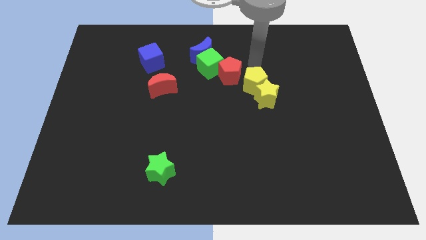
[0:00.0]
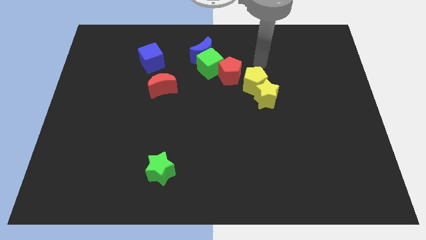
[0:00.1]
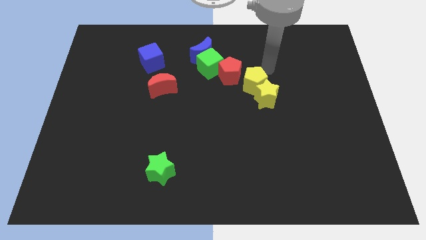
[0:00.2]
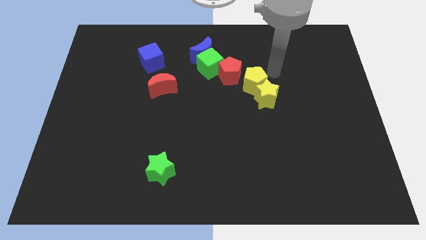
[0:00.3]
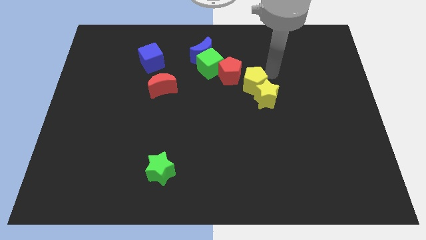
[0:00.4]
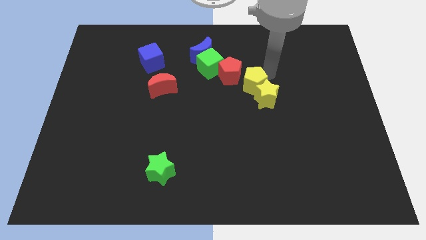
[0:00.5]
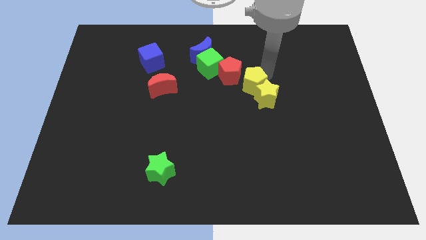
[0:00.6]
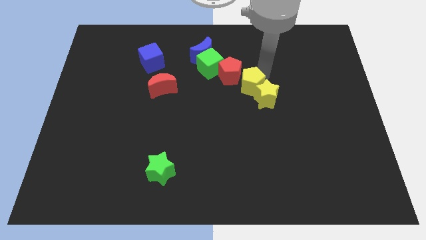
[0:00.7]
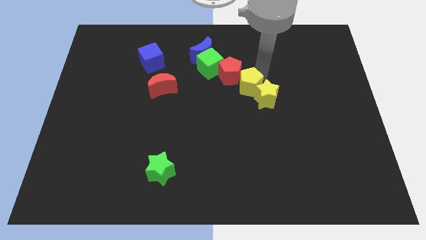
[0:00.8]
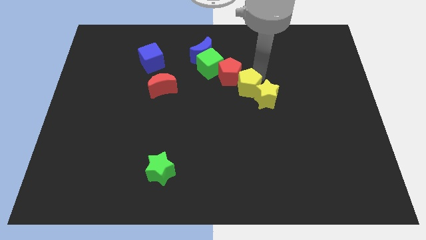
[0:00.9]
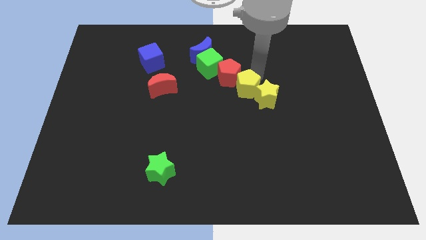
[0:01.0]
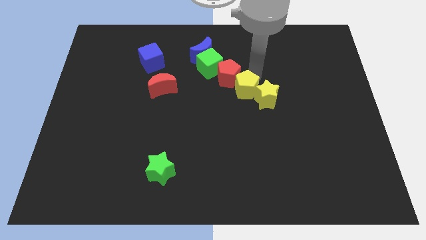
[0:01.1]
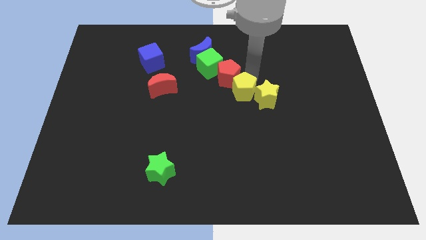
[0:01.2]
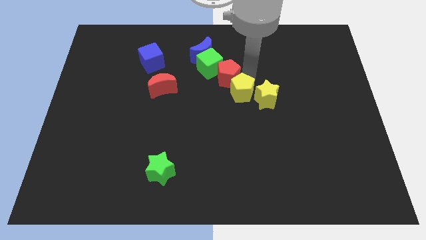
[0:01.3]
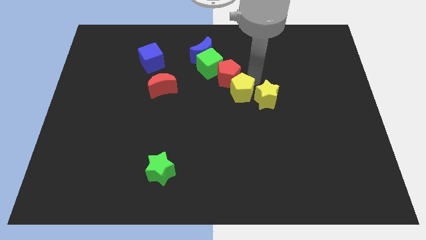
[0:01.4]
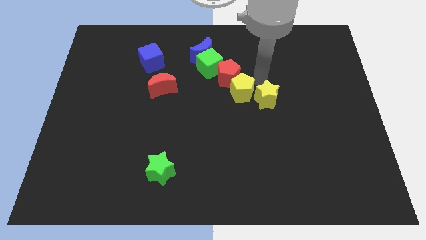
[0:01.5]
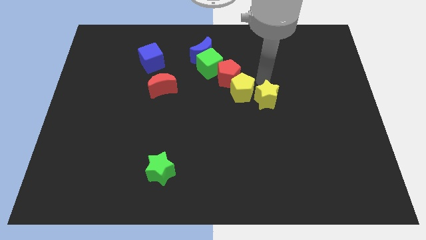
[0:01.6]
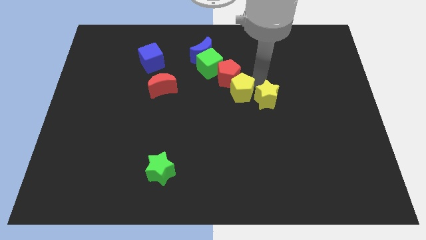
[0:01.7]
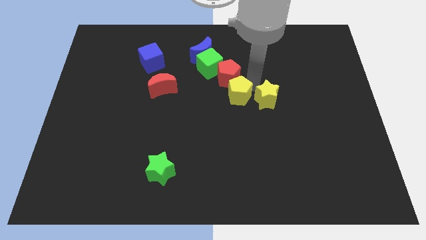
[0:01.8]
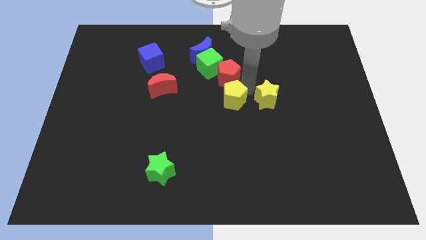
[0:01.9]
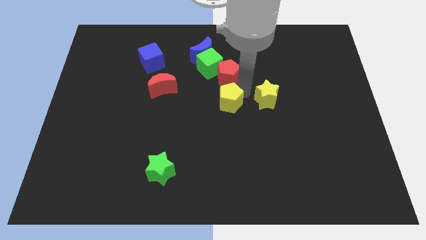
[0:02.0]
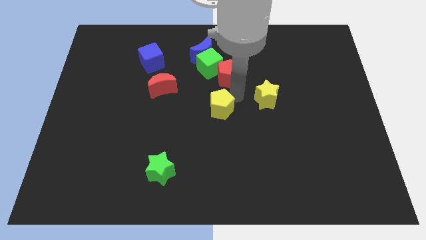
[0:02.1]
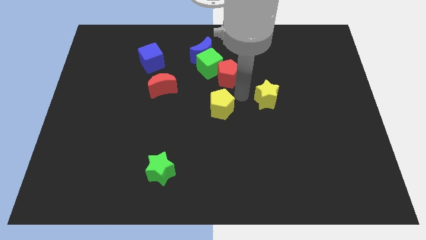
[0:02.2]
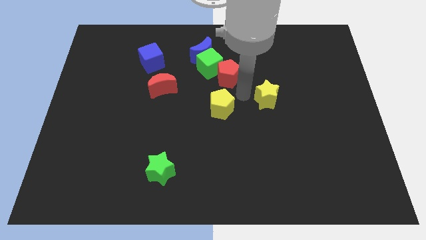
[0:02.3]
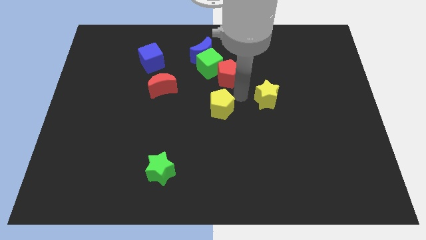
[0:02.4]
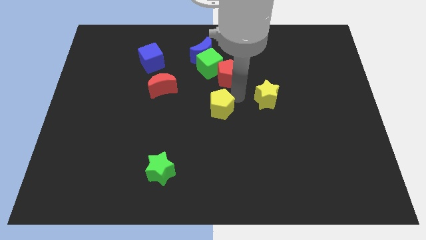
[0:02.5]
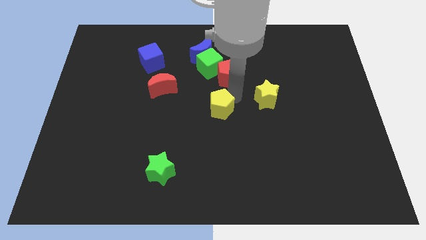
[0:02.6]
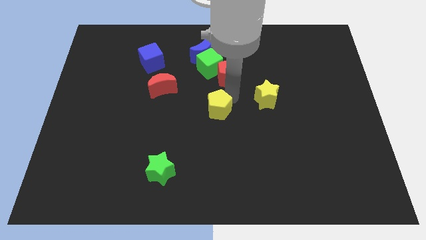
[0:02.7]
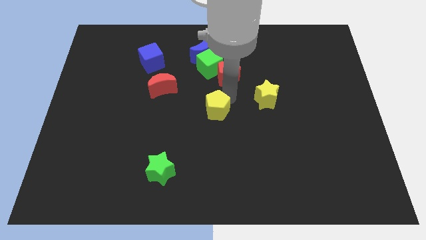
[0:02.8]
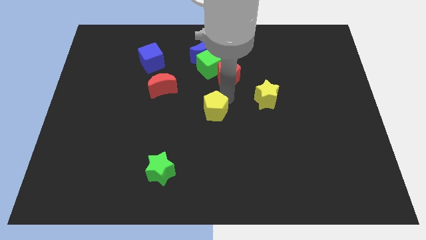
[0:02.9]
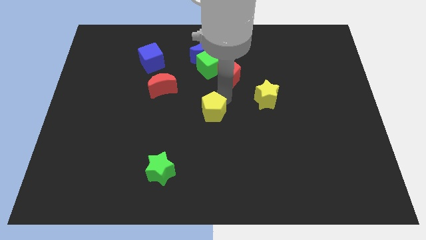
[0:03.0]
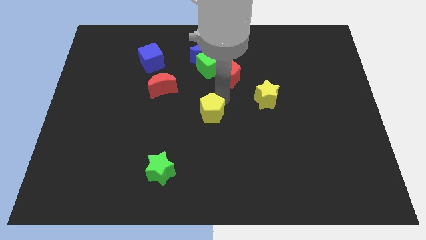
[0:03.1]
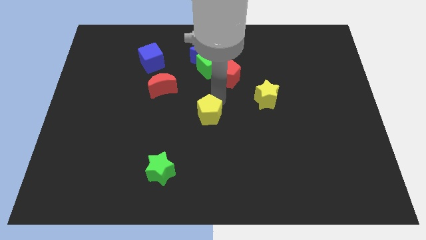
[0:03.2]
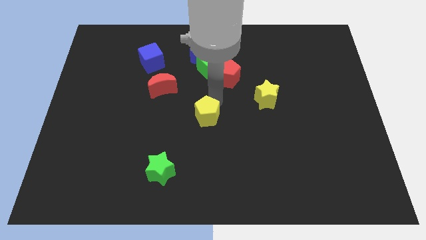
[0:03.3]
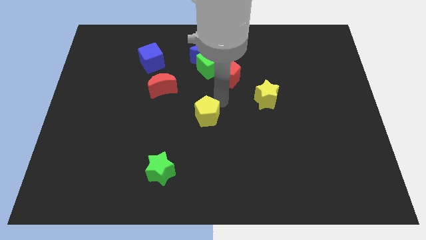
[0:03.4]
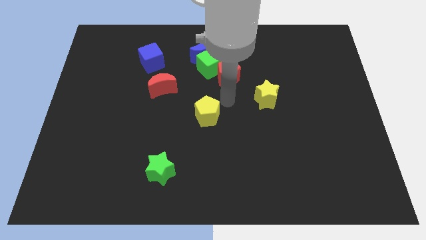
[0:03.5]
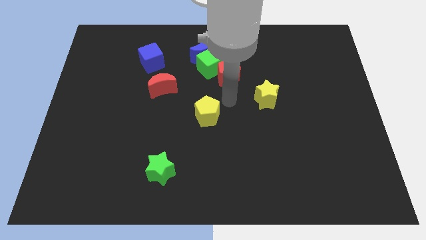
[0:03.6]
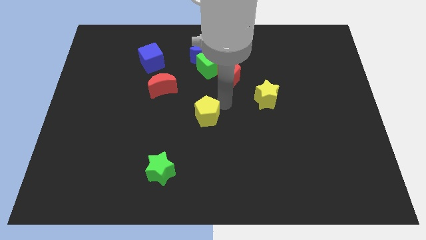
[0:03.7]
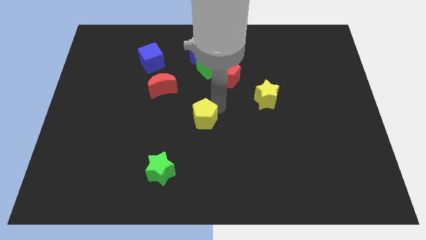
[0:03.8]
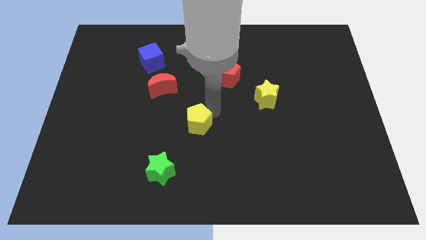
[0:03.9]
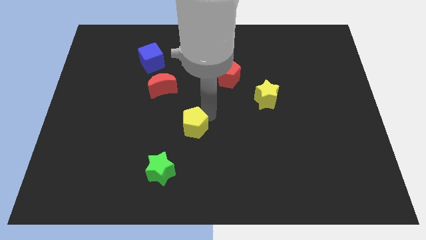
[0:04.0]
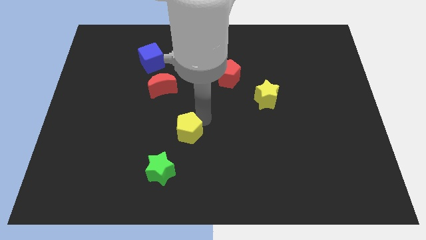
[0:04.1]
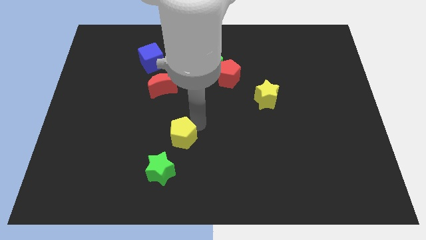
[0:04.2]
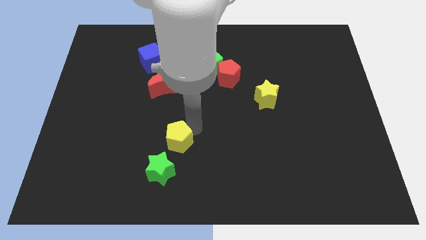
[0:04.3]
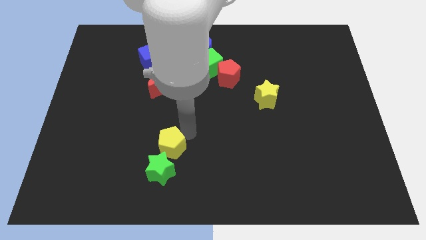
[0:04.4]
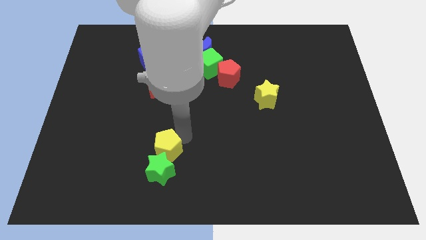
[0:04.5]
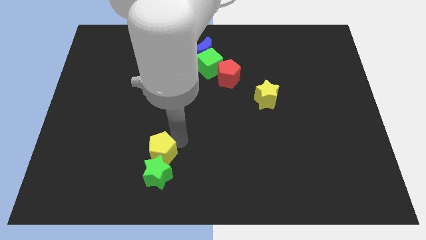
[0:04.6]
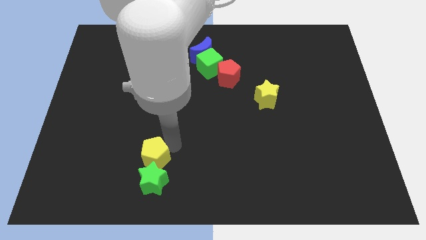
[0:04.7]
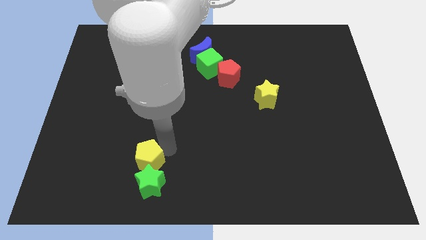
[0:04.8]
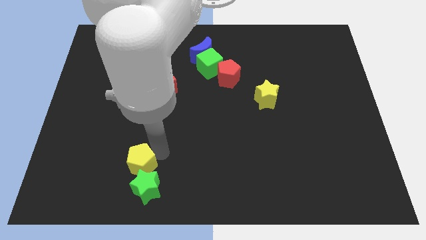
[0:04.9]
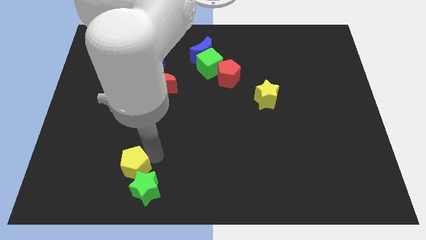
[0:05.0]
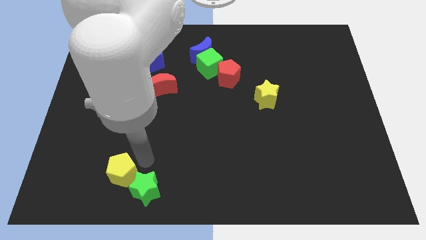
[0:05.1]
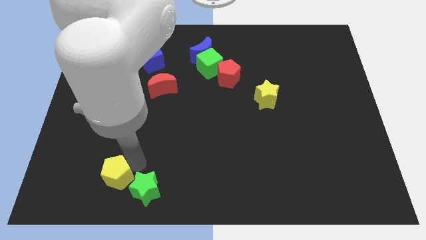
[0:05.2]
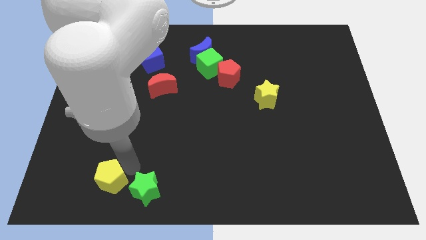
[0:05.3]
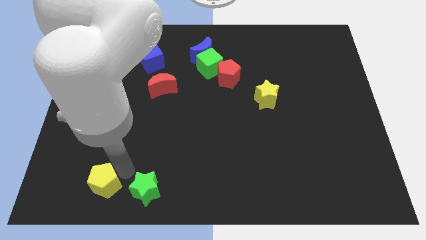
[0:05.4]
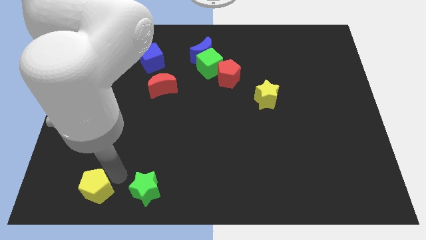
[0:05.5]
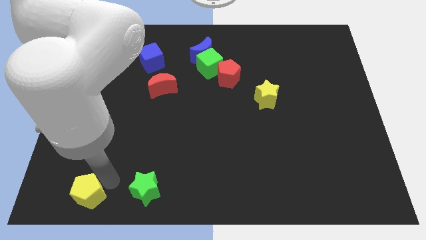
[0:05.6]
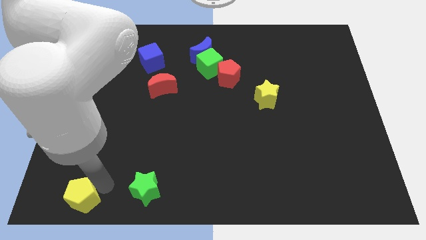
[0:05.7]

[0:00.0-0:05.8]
move the yellow pentagon to the bottom left
